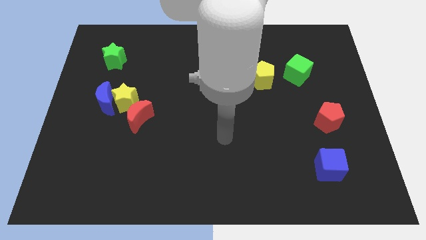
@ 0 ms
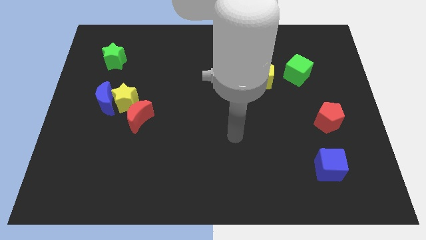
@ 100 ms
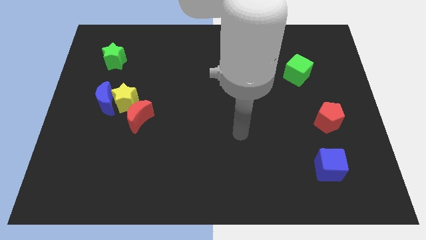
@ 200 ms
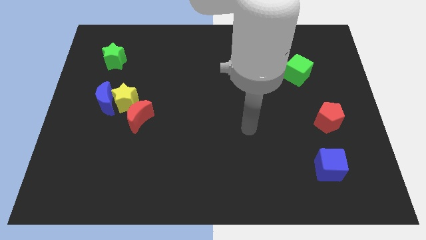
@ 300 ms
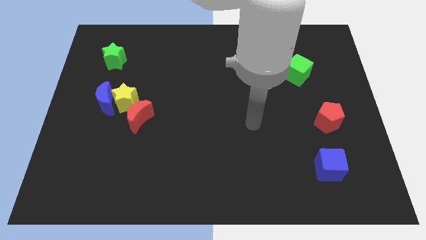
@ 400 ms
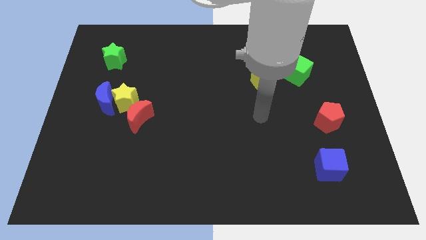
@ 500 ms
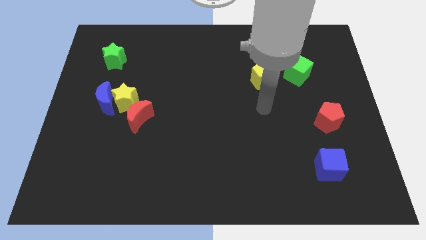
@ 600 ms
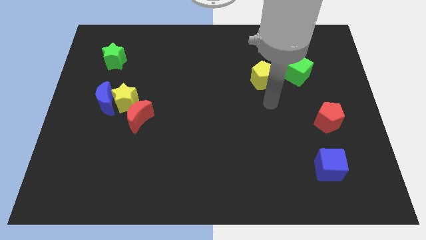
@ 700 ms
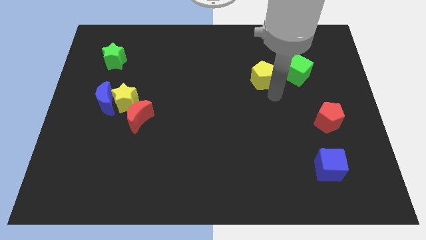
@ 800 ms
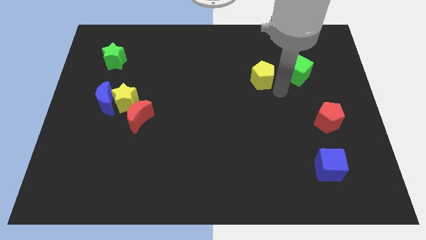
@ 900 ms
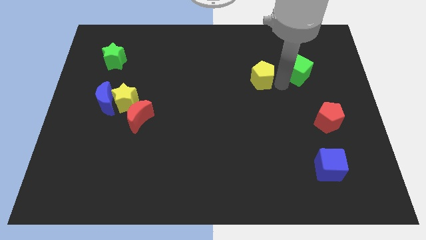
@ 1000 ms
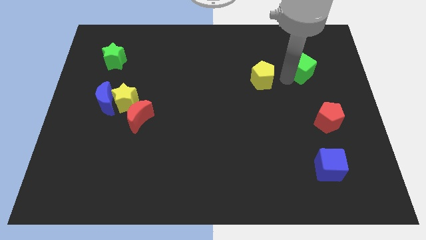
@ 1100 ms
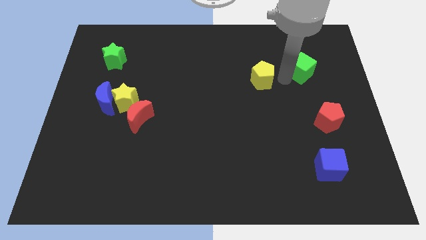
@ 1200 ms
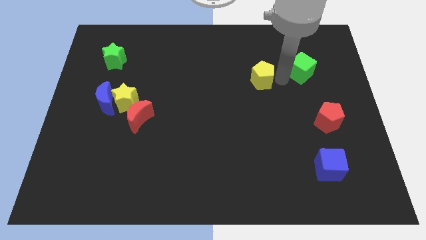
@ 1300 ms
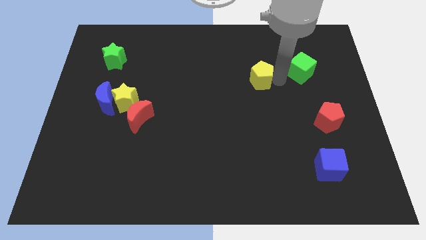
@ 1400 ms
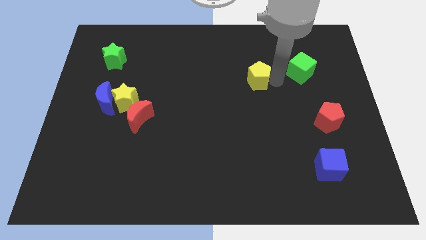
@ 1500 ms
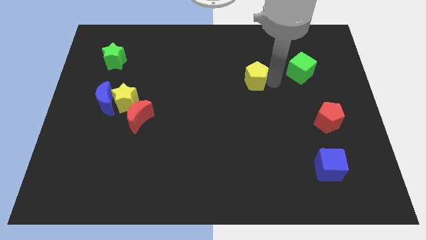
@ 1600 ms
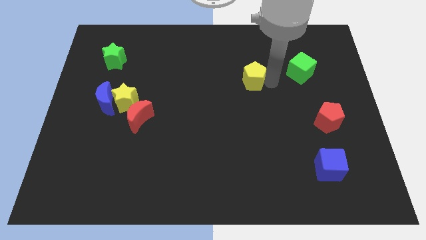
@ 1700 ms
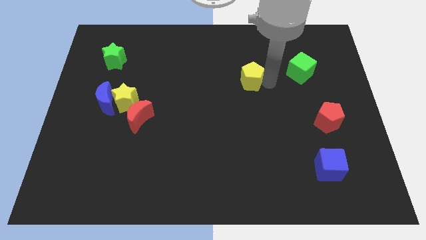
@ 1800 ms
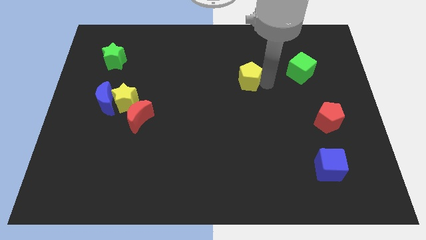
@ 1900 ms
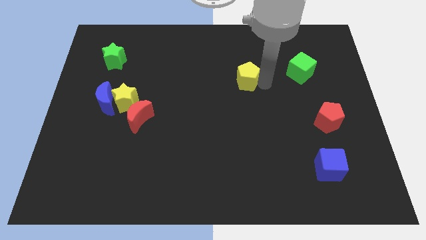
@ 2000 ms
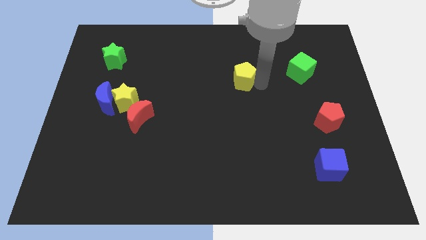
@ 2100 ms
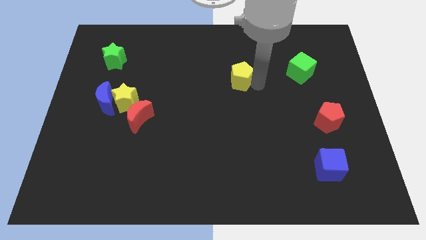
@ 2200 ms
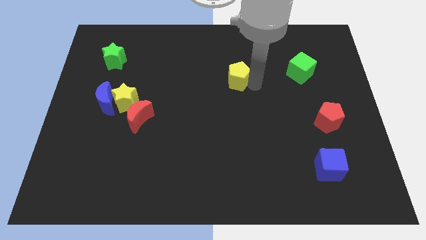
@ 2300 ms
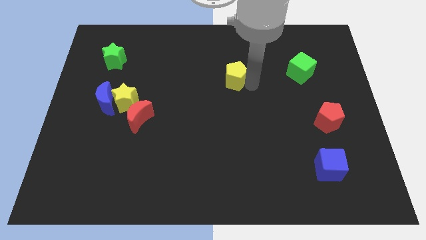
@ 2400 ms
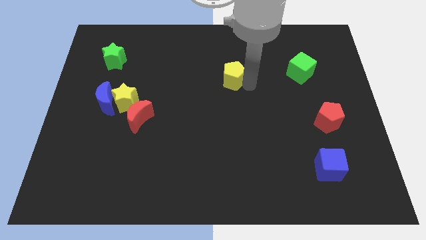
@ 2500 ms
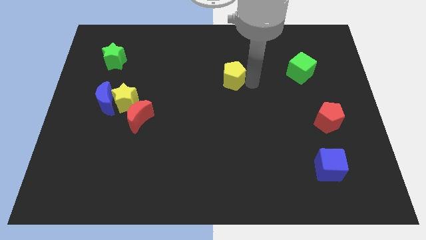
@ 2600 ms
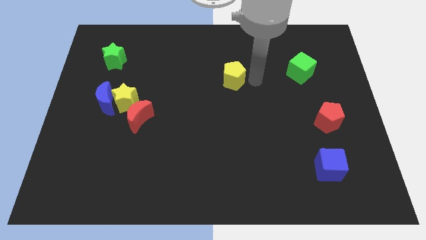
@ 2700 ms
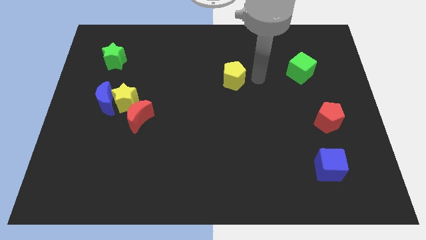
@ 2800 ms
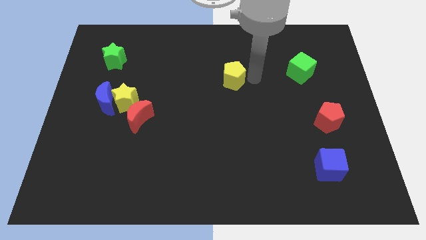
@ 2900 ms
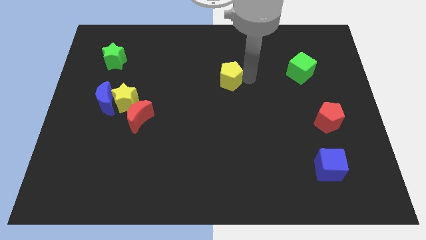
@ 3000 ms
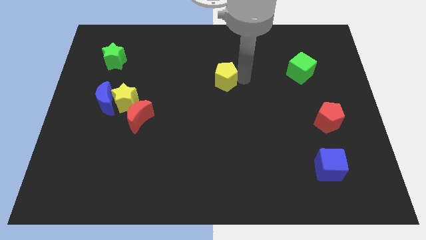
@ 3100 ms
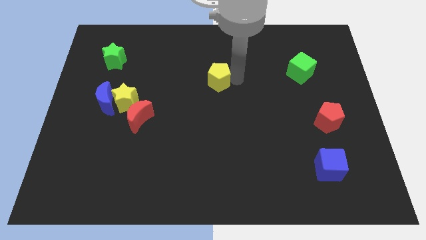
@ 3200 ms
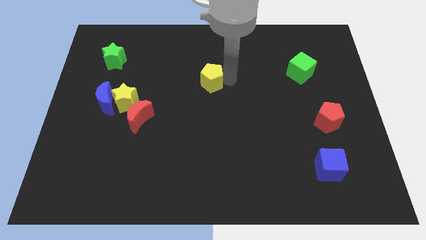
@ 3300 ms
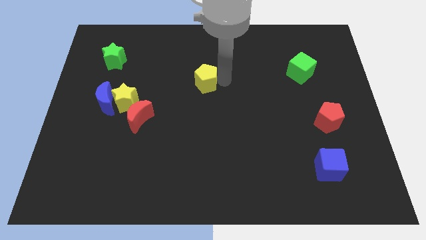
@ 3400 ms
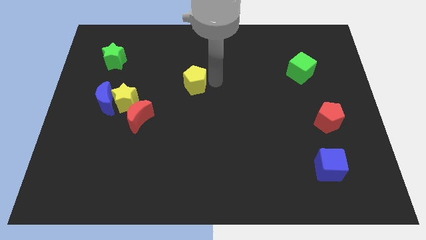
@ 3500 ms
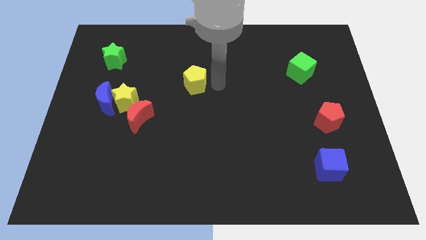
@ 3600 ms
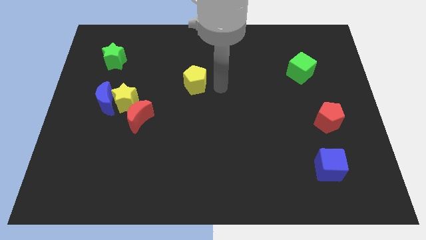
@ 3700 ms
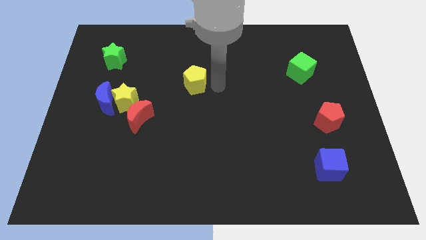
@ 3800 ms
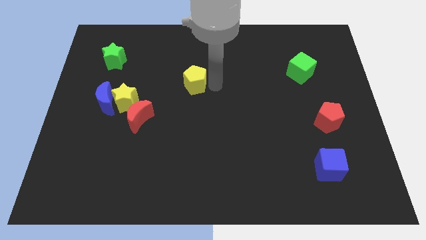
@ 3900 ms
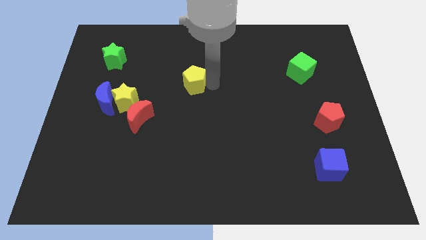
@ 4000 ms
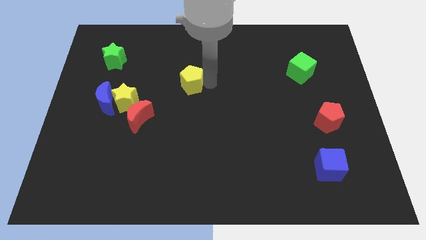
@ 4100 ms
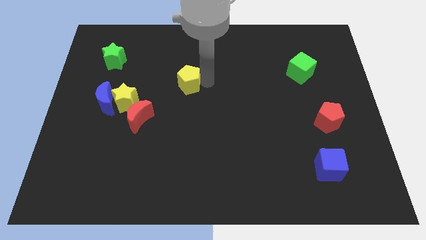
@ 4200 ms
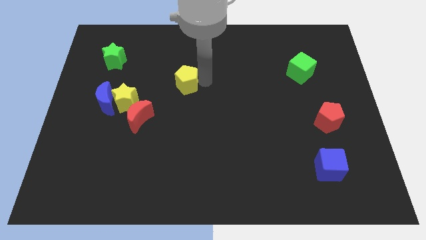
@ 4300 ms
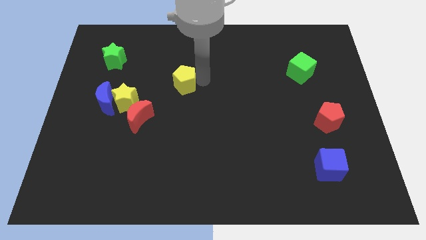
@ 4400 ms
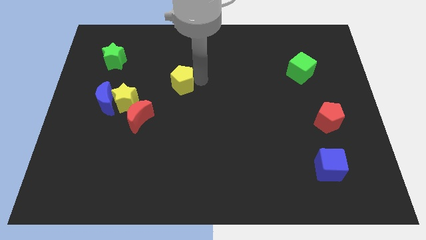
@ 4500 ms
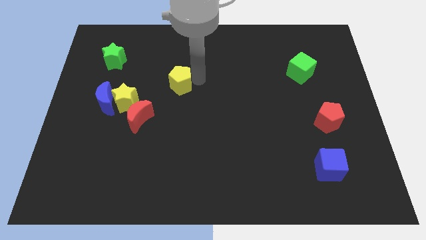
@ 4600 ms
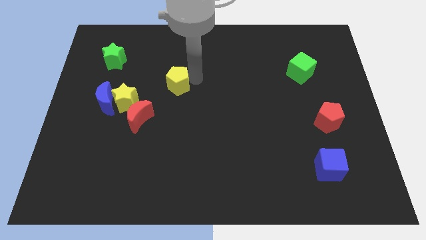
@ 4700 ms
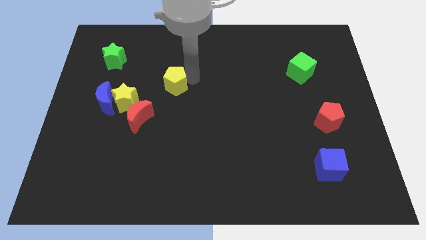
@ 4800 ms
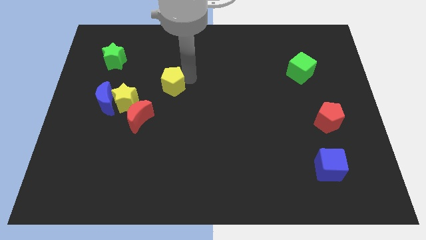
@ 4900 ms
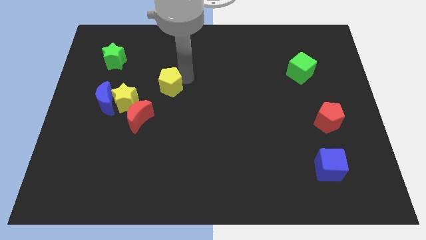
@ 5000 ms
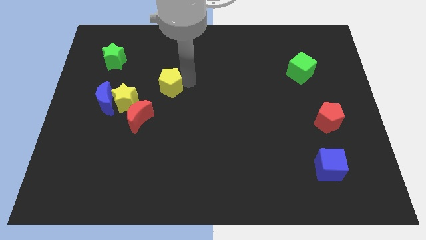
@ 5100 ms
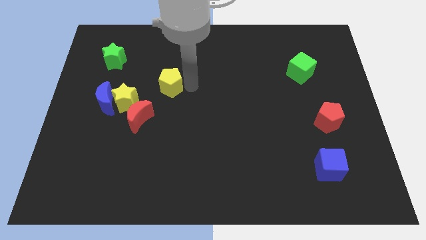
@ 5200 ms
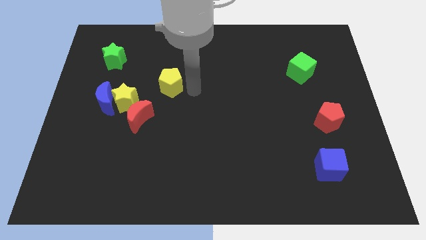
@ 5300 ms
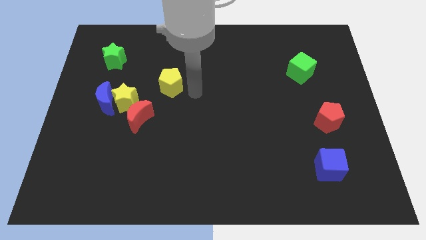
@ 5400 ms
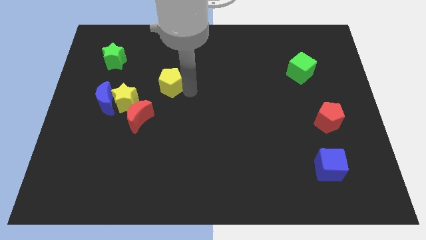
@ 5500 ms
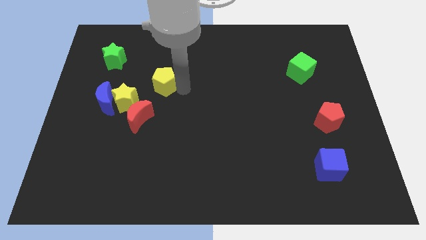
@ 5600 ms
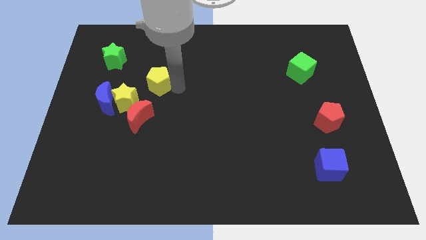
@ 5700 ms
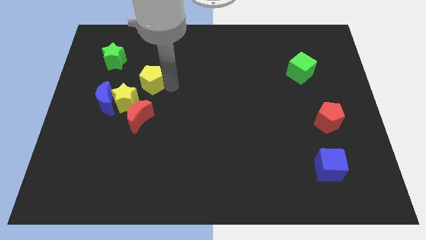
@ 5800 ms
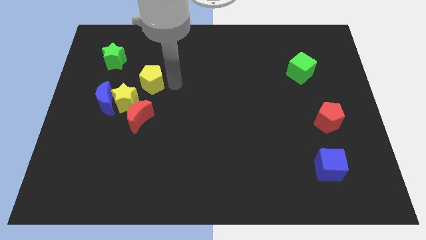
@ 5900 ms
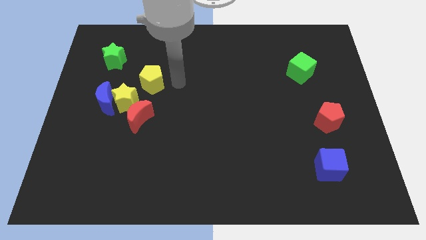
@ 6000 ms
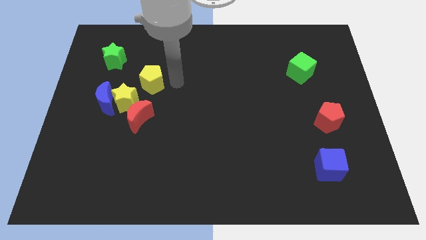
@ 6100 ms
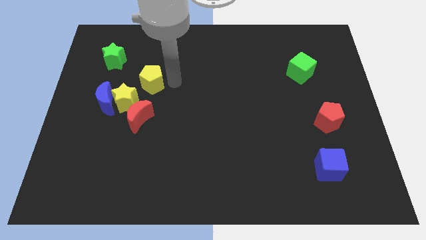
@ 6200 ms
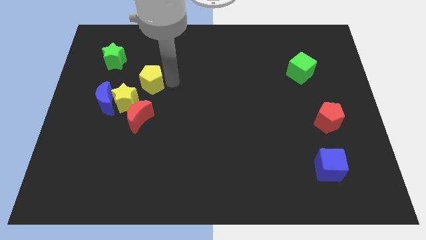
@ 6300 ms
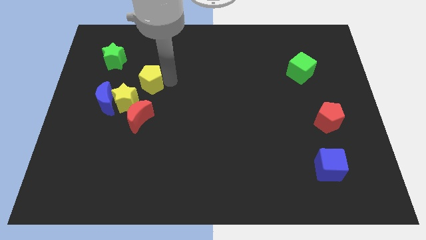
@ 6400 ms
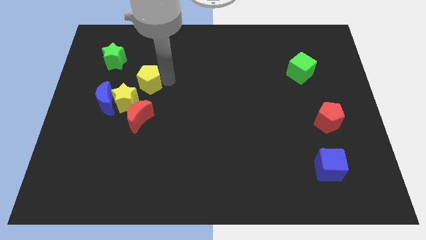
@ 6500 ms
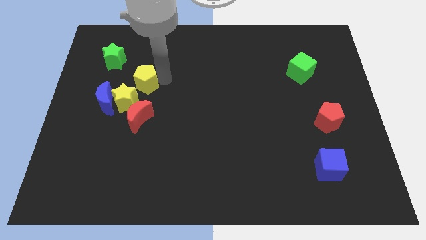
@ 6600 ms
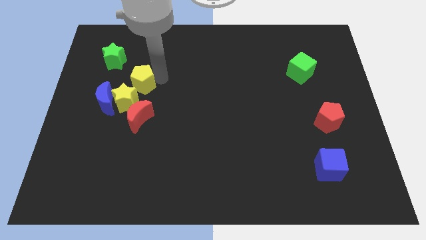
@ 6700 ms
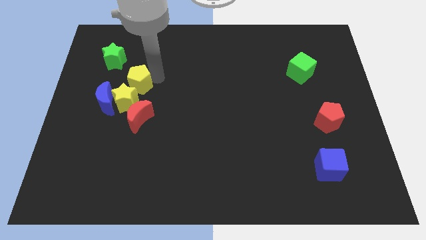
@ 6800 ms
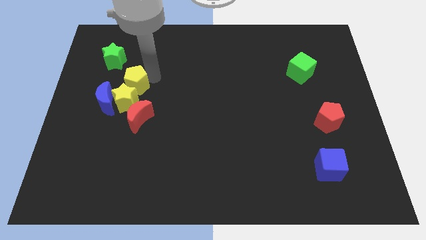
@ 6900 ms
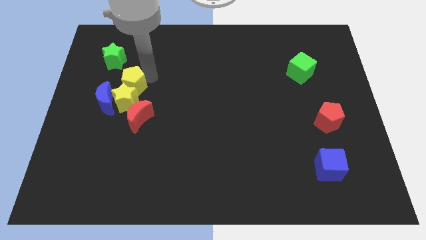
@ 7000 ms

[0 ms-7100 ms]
push the yellow pentagon to the top left side of the yellow star

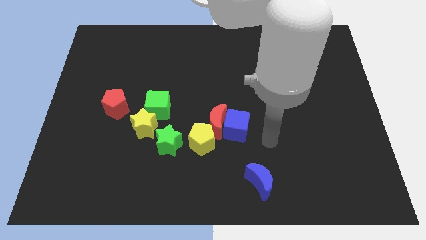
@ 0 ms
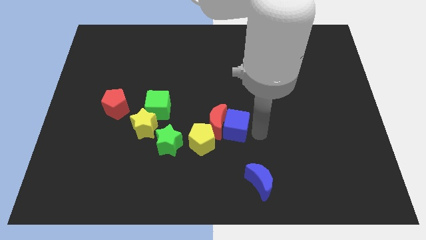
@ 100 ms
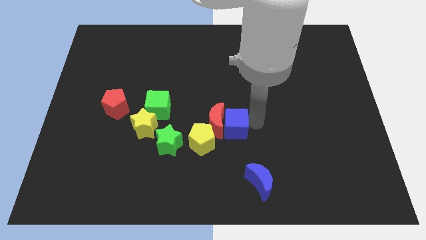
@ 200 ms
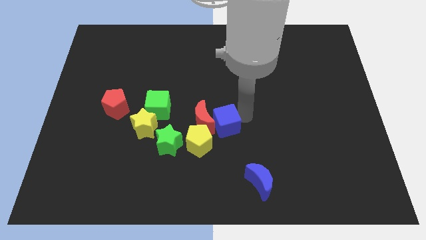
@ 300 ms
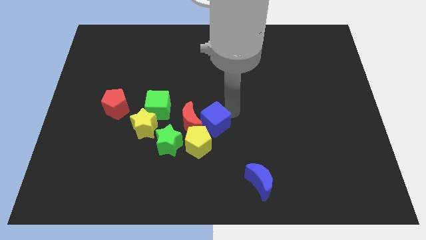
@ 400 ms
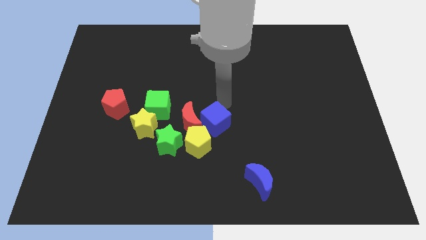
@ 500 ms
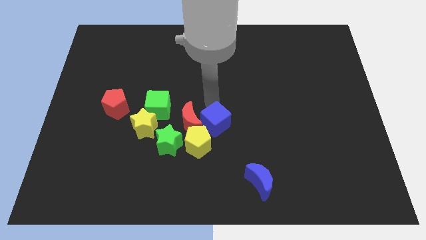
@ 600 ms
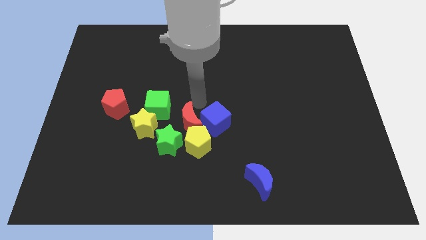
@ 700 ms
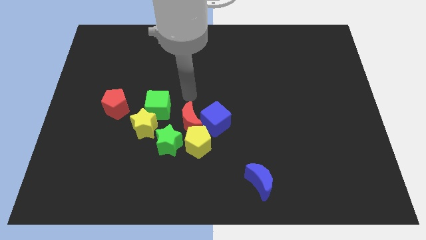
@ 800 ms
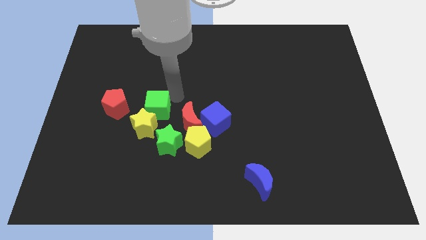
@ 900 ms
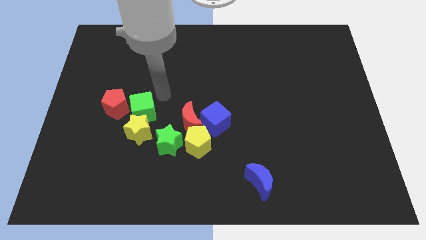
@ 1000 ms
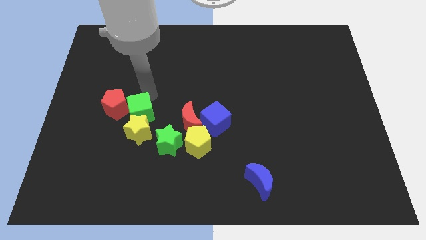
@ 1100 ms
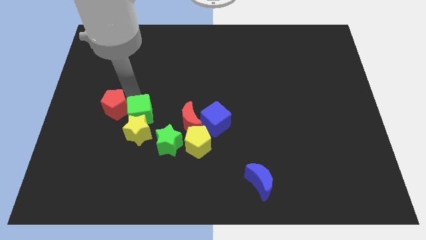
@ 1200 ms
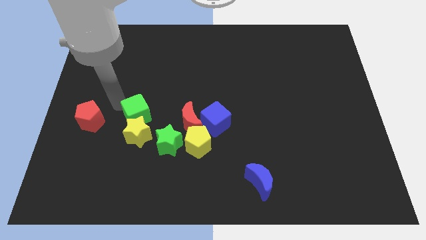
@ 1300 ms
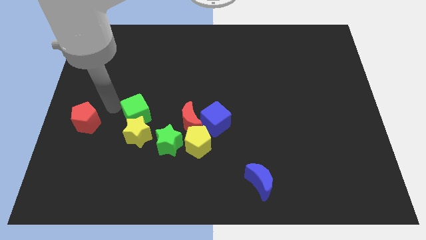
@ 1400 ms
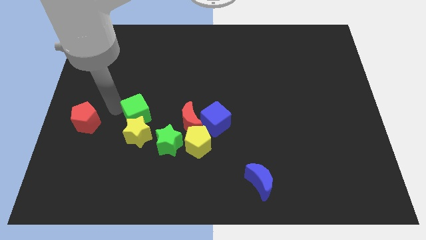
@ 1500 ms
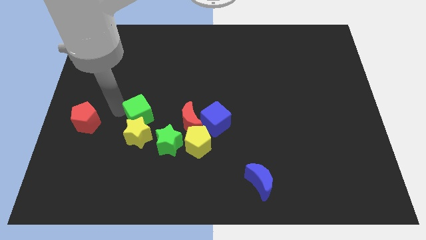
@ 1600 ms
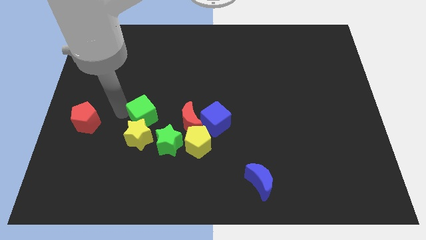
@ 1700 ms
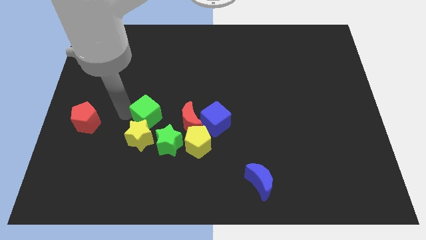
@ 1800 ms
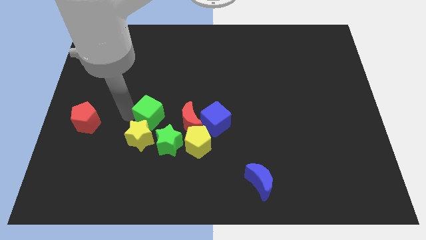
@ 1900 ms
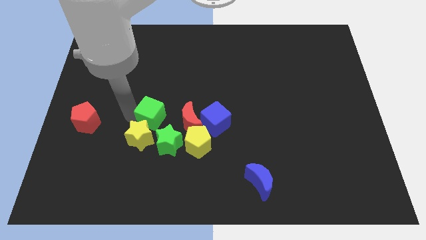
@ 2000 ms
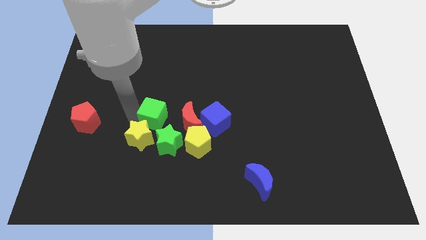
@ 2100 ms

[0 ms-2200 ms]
slide the green cube to the top left side of the yellow pentagon
